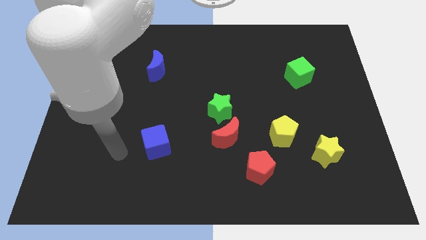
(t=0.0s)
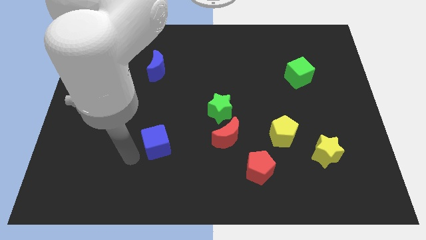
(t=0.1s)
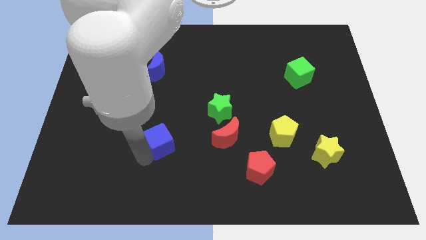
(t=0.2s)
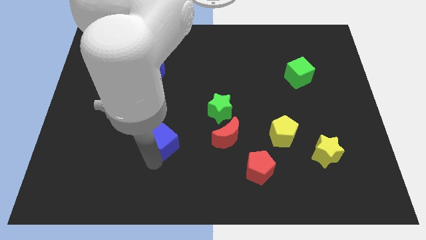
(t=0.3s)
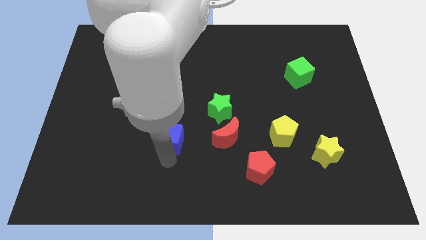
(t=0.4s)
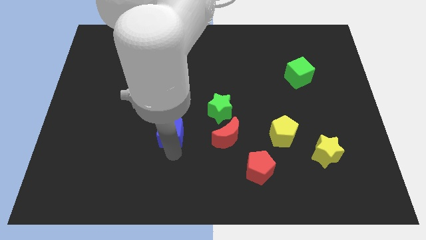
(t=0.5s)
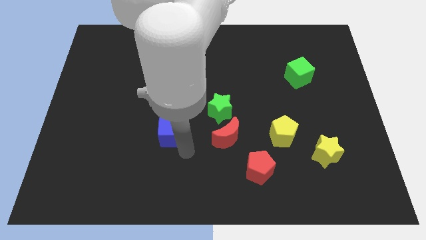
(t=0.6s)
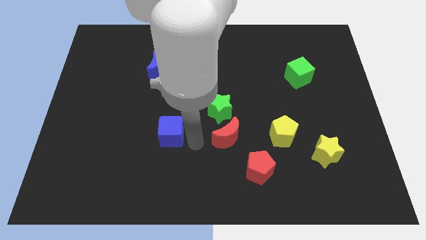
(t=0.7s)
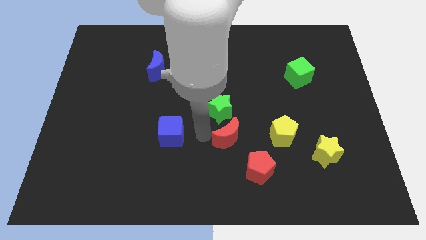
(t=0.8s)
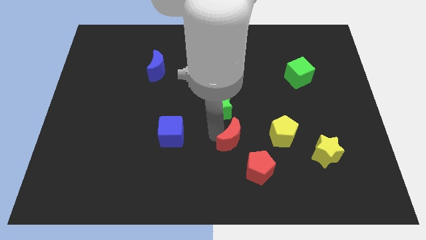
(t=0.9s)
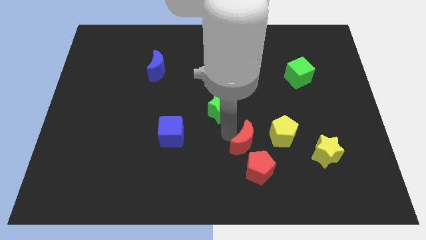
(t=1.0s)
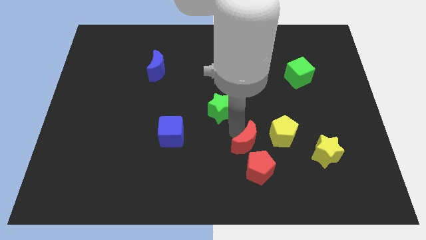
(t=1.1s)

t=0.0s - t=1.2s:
pull the green star apart from the red moon

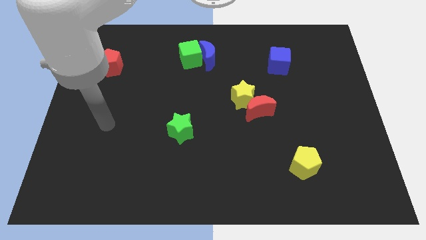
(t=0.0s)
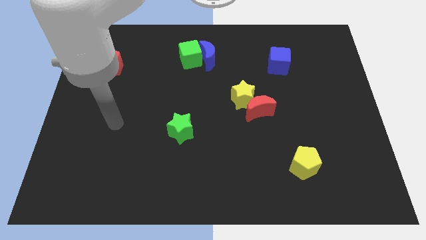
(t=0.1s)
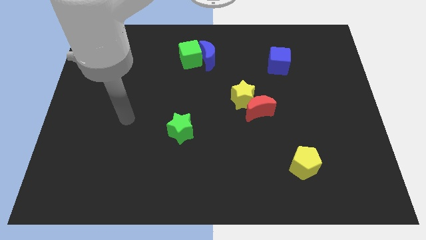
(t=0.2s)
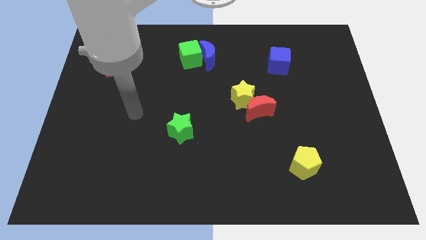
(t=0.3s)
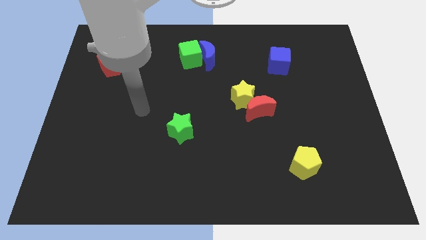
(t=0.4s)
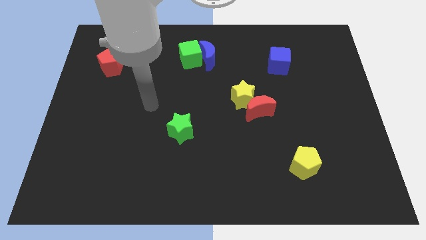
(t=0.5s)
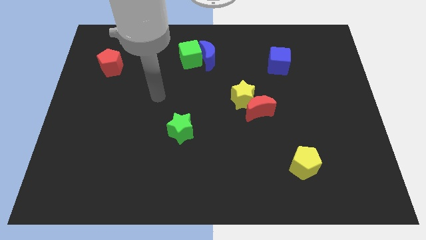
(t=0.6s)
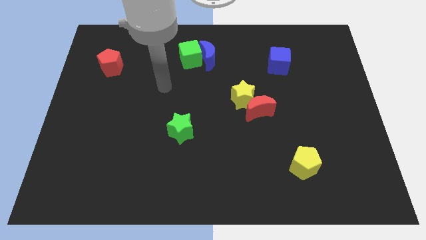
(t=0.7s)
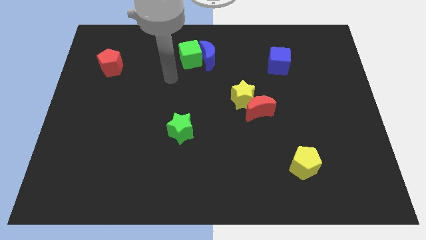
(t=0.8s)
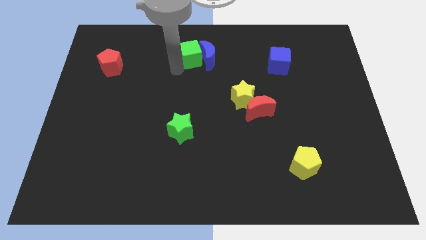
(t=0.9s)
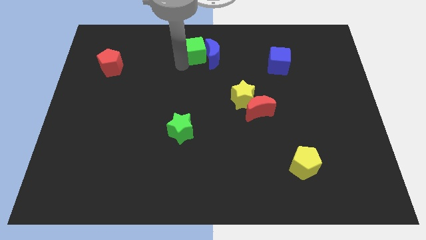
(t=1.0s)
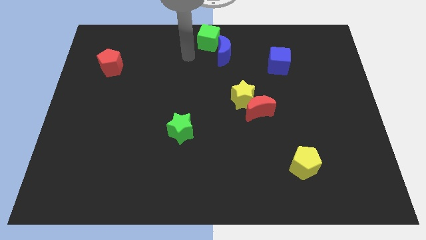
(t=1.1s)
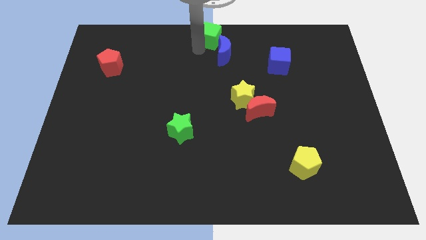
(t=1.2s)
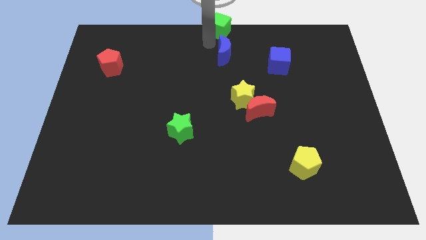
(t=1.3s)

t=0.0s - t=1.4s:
pull the blue moon apart from the green cube

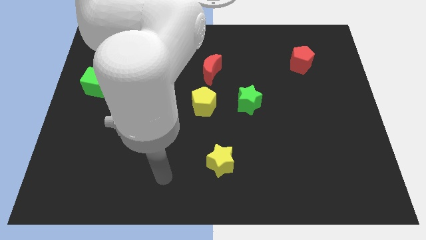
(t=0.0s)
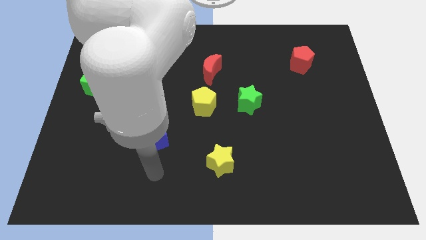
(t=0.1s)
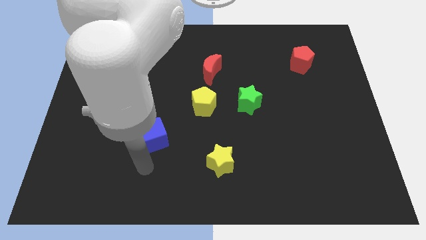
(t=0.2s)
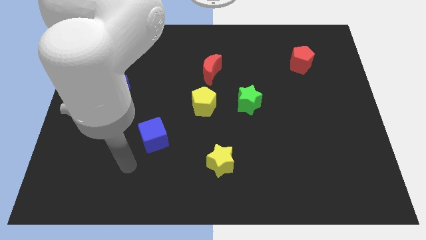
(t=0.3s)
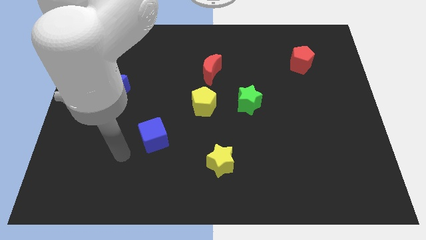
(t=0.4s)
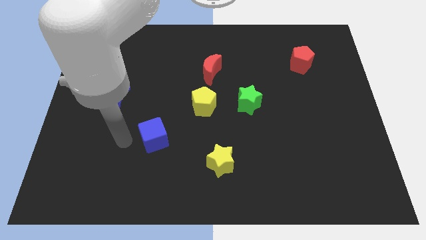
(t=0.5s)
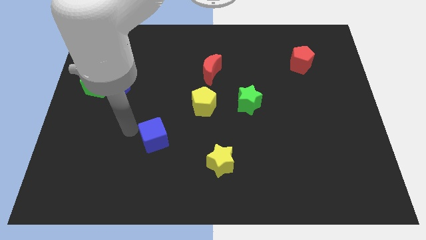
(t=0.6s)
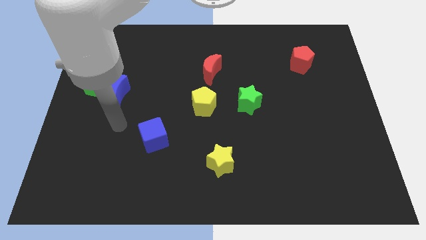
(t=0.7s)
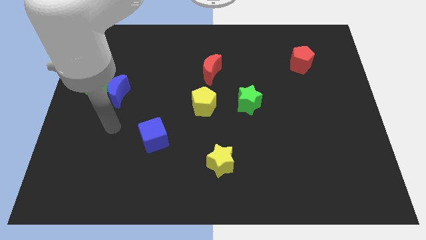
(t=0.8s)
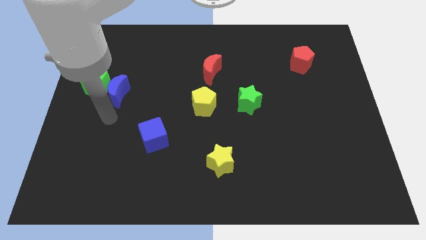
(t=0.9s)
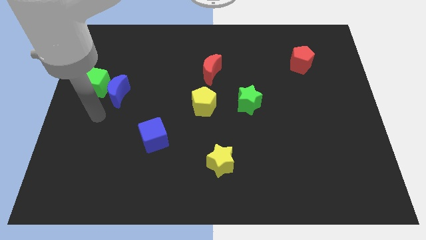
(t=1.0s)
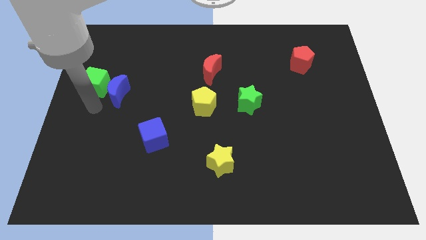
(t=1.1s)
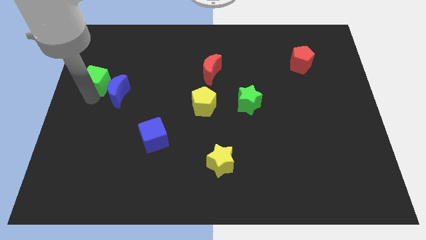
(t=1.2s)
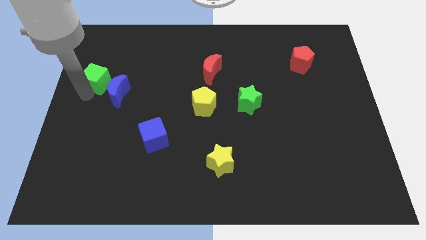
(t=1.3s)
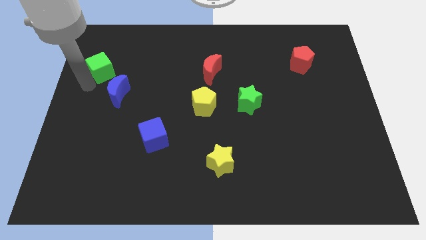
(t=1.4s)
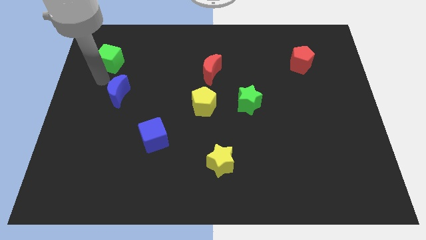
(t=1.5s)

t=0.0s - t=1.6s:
move the blue moon away from the green cube

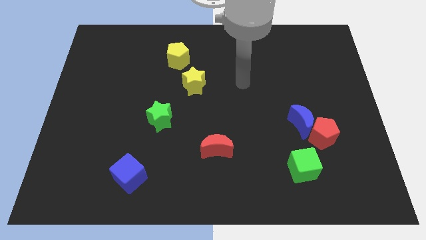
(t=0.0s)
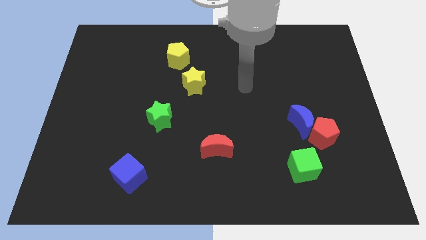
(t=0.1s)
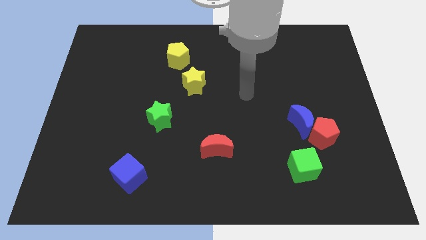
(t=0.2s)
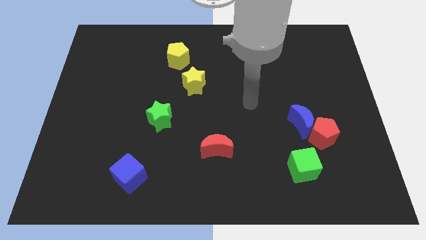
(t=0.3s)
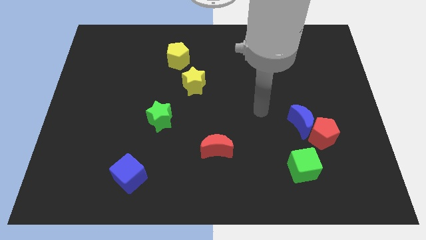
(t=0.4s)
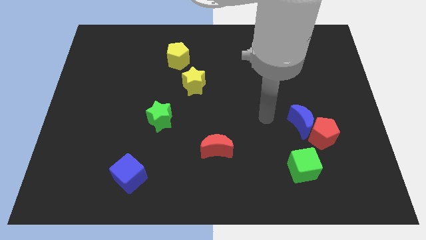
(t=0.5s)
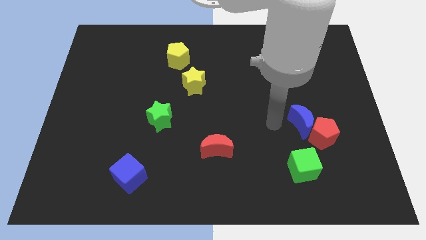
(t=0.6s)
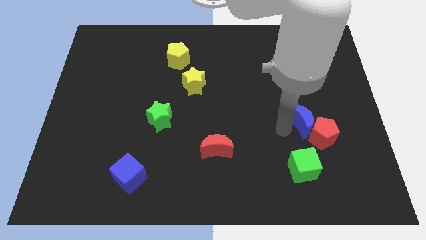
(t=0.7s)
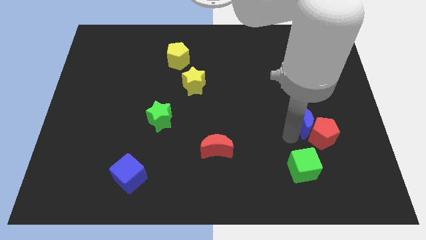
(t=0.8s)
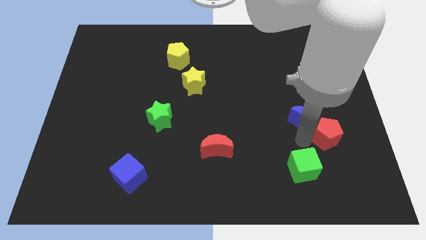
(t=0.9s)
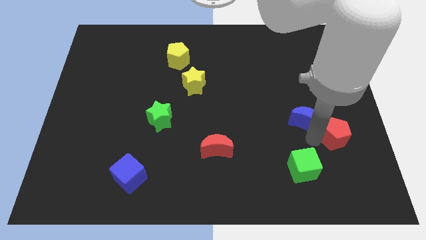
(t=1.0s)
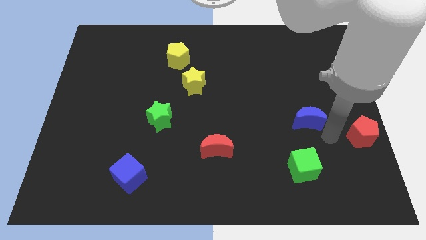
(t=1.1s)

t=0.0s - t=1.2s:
pull the blue moon apart from the red pentagon

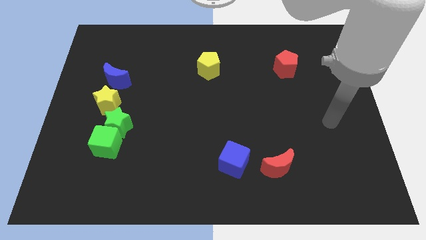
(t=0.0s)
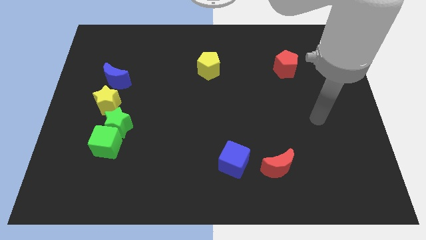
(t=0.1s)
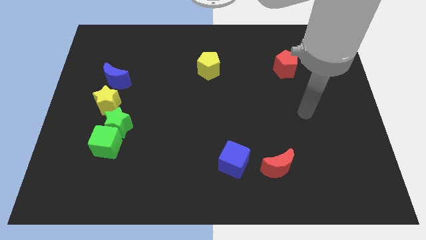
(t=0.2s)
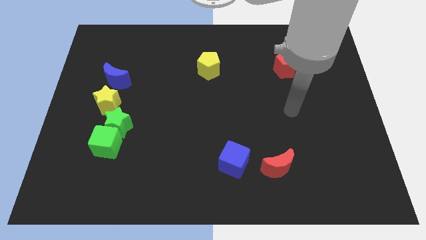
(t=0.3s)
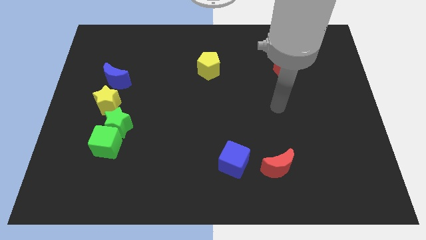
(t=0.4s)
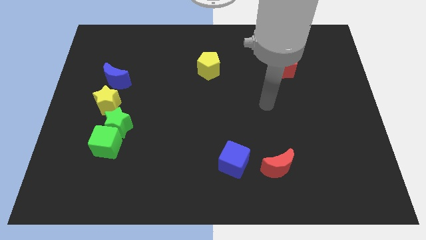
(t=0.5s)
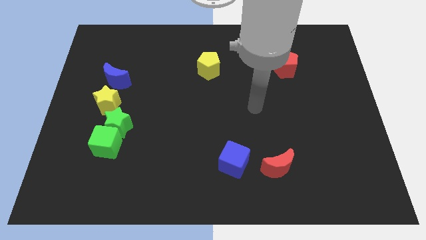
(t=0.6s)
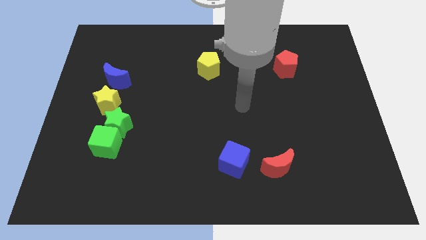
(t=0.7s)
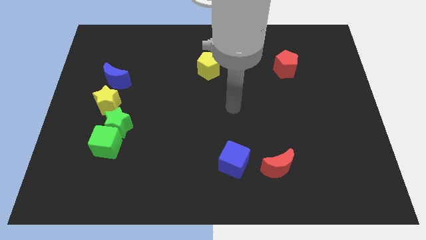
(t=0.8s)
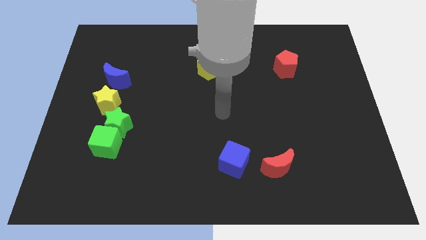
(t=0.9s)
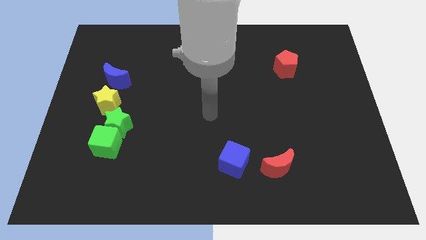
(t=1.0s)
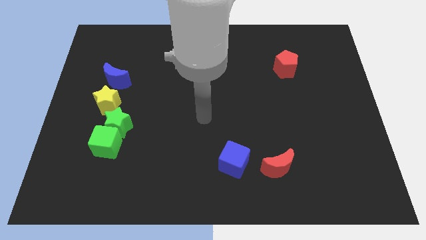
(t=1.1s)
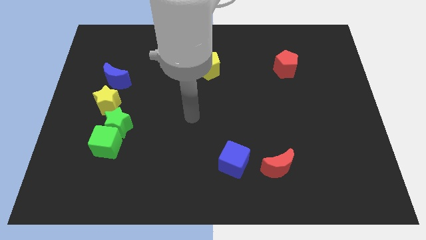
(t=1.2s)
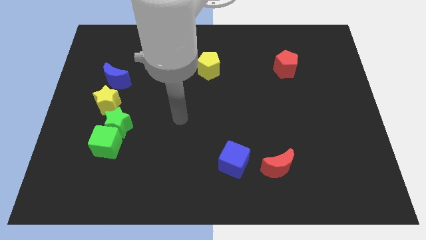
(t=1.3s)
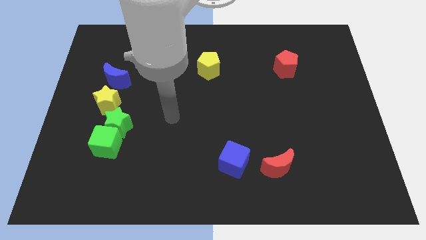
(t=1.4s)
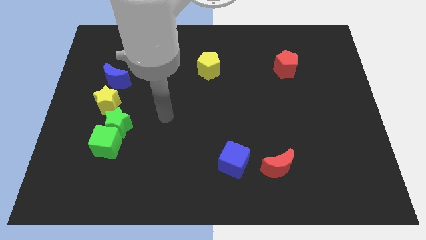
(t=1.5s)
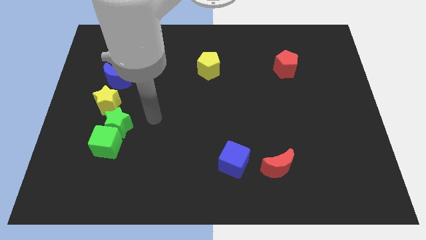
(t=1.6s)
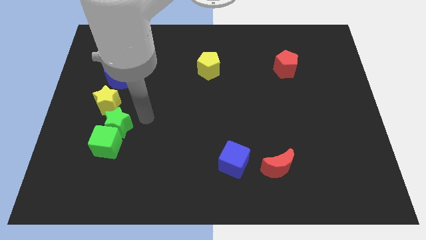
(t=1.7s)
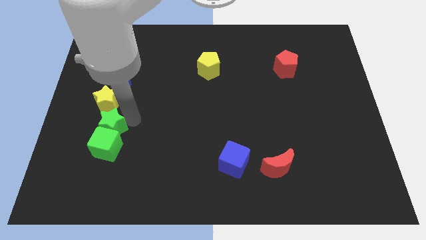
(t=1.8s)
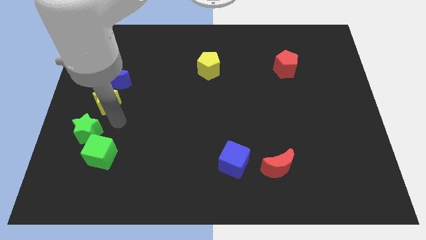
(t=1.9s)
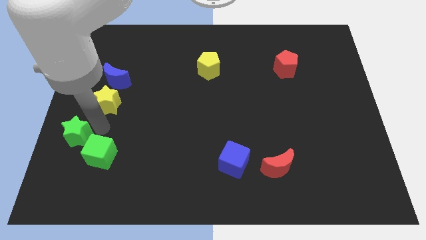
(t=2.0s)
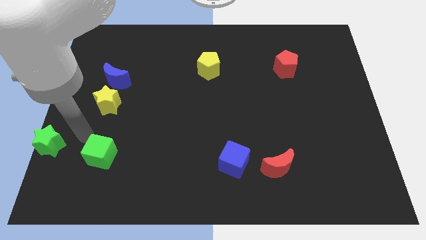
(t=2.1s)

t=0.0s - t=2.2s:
move the green cube away from the green star

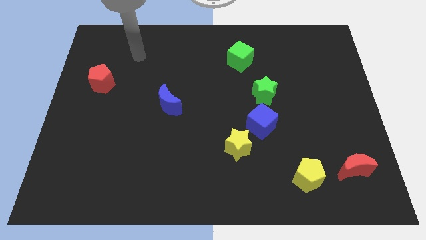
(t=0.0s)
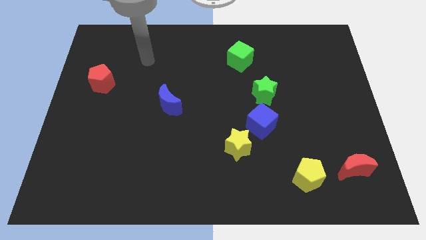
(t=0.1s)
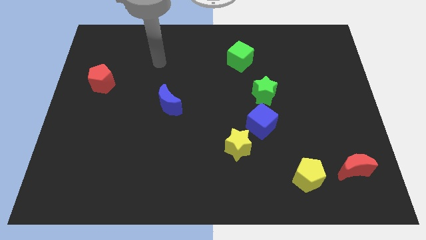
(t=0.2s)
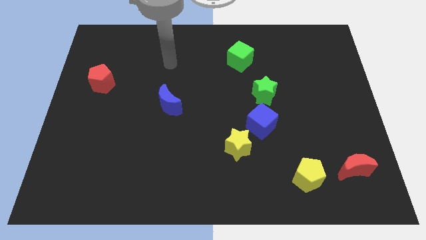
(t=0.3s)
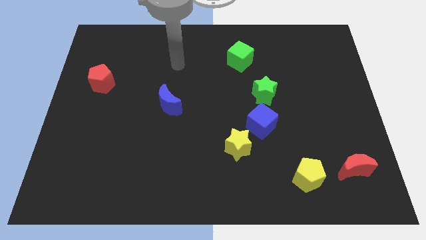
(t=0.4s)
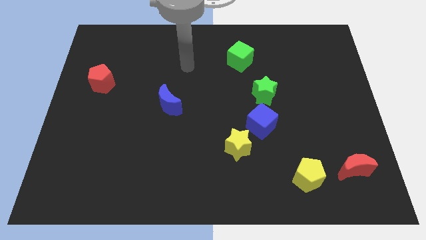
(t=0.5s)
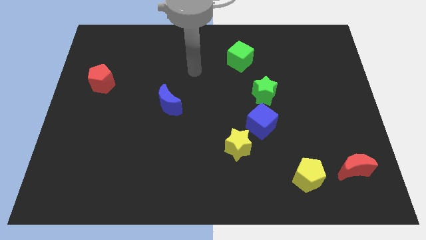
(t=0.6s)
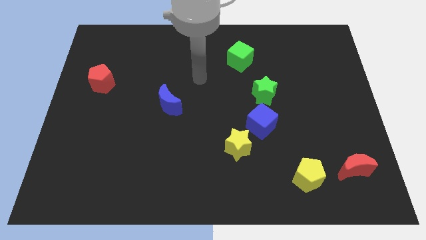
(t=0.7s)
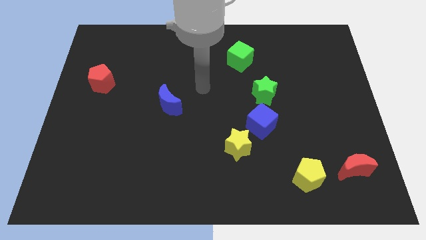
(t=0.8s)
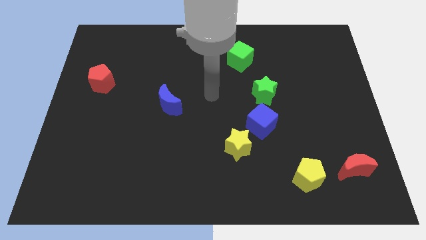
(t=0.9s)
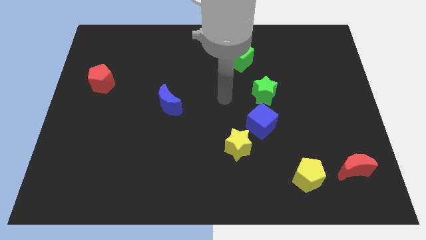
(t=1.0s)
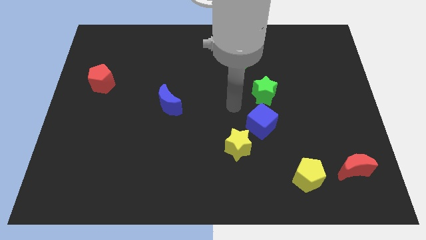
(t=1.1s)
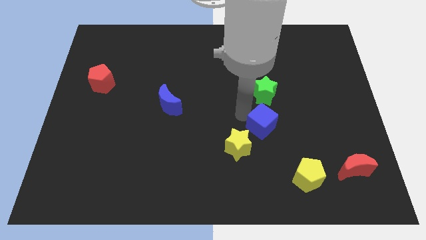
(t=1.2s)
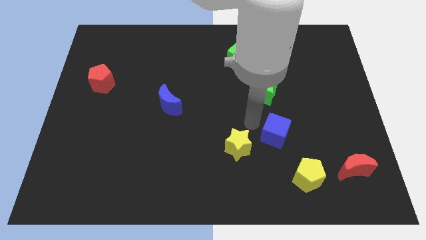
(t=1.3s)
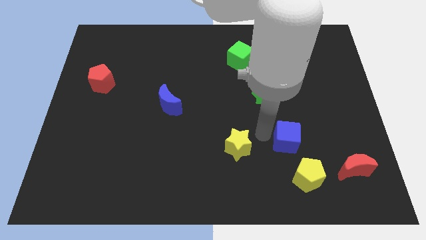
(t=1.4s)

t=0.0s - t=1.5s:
separate the yellow star from the blue cube

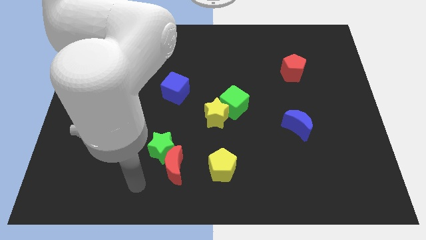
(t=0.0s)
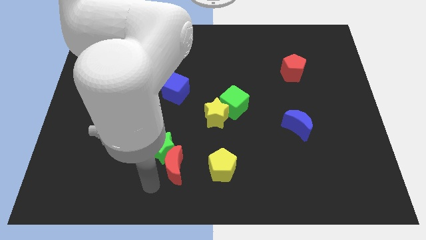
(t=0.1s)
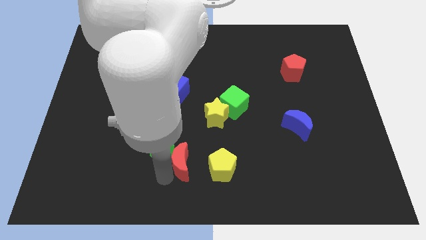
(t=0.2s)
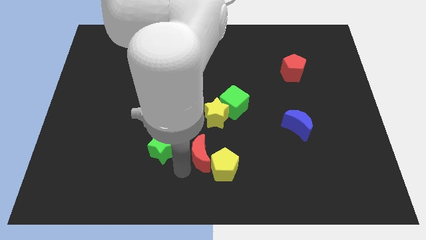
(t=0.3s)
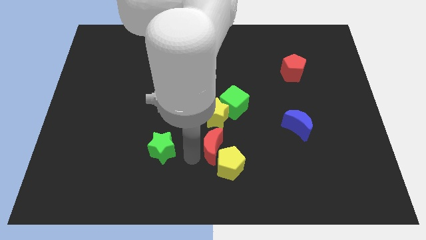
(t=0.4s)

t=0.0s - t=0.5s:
separate the green star from the red moon
